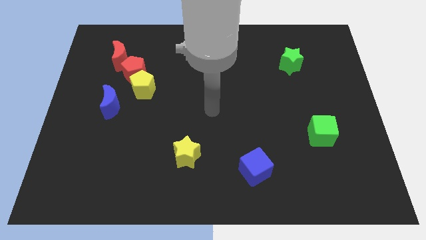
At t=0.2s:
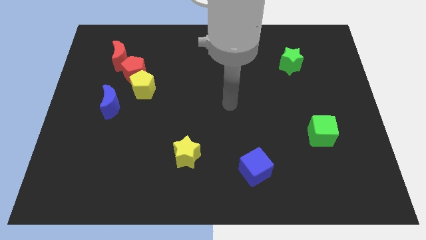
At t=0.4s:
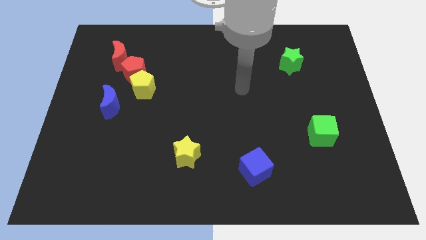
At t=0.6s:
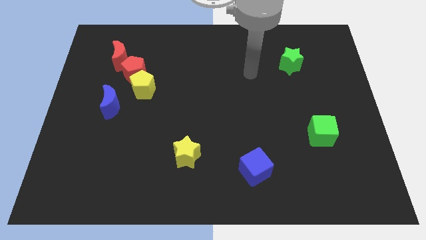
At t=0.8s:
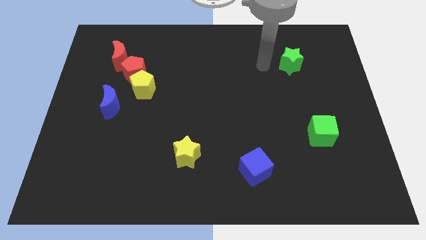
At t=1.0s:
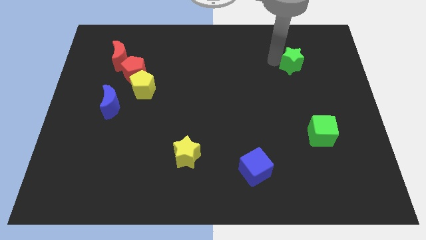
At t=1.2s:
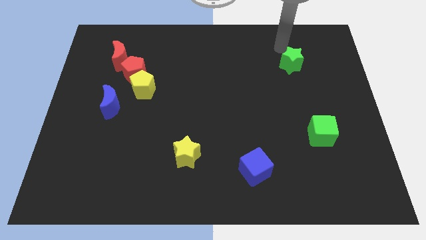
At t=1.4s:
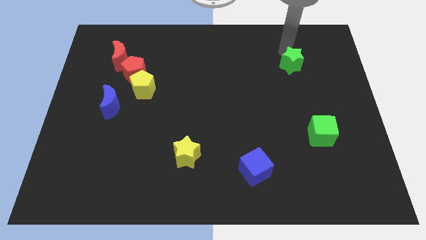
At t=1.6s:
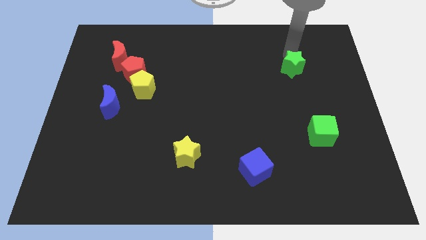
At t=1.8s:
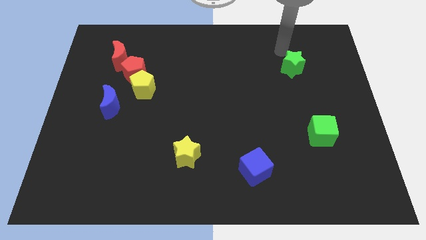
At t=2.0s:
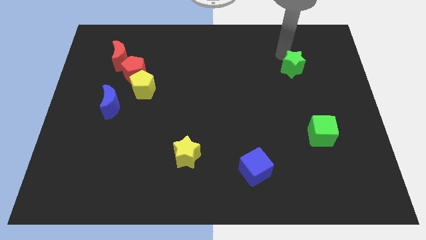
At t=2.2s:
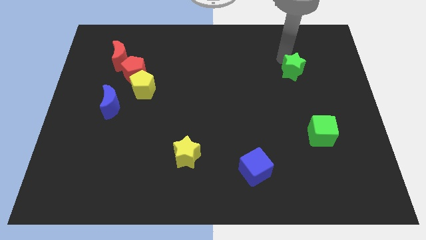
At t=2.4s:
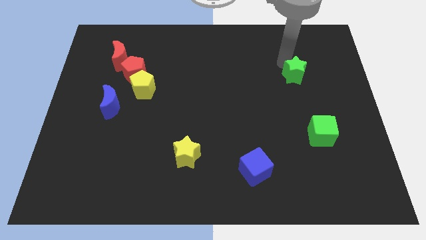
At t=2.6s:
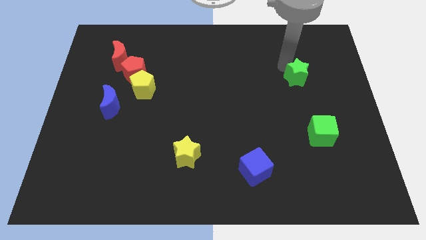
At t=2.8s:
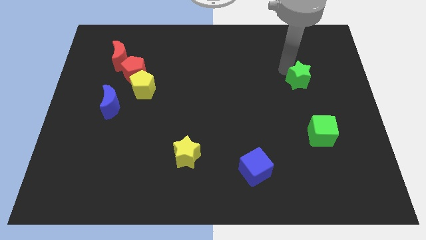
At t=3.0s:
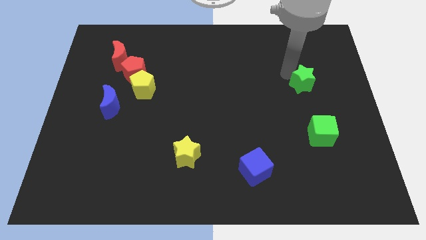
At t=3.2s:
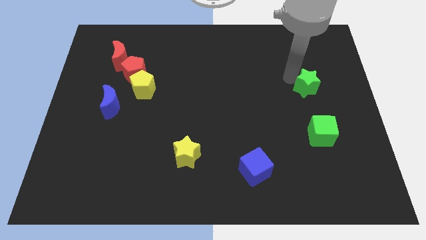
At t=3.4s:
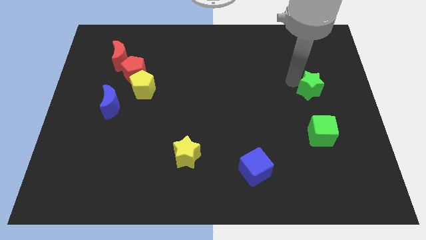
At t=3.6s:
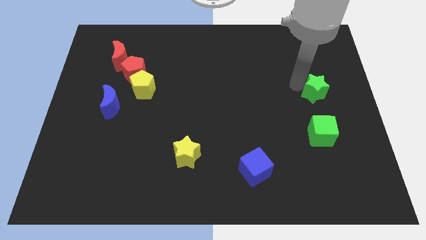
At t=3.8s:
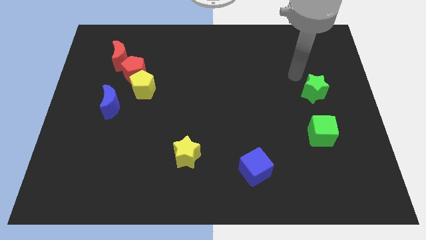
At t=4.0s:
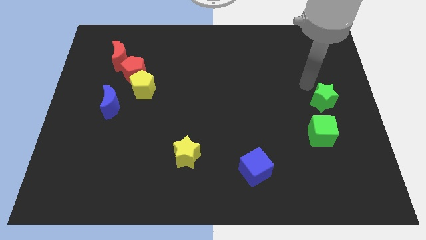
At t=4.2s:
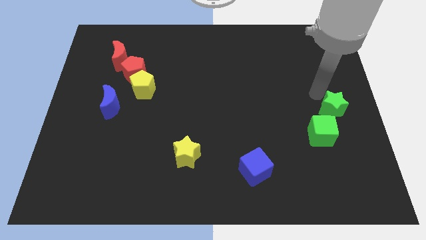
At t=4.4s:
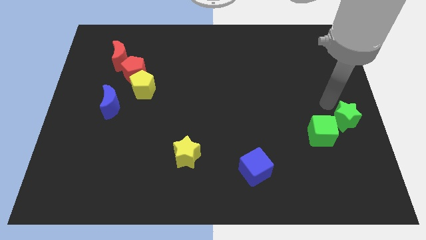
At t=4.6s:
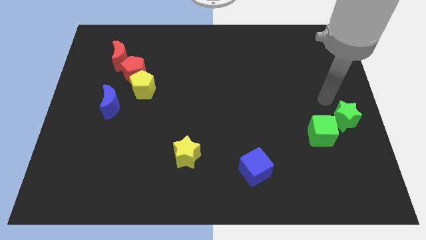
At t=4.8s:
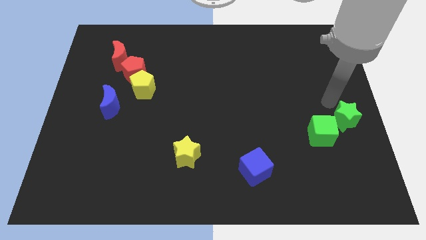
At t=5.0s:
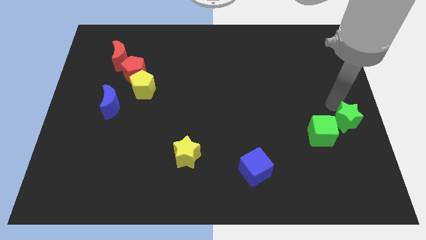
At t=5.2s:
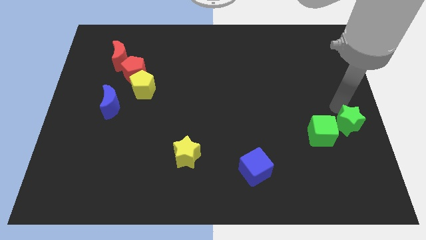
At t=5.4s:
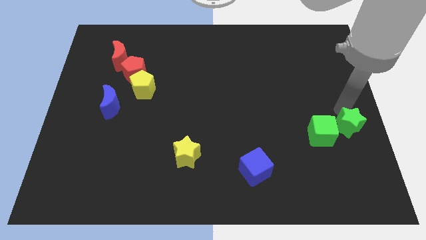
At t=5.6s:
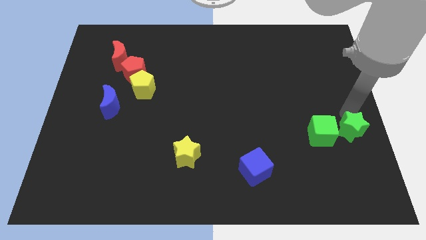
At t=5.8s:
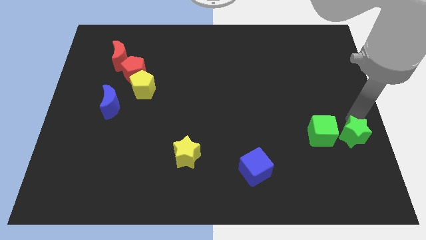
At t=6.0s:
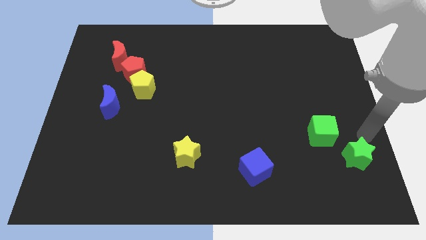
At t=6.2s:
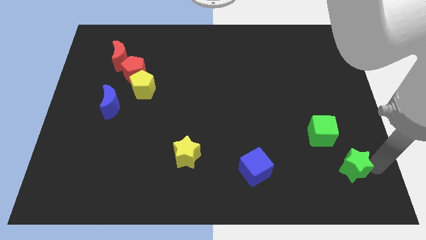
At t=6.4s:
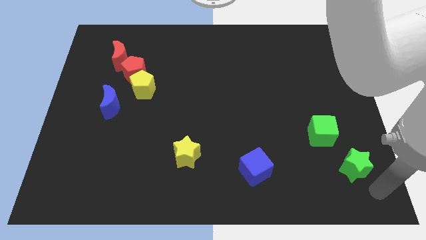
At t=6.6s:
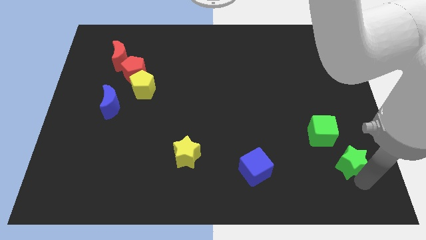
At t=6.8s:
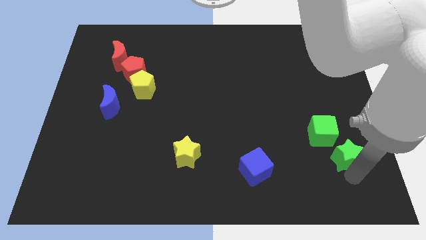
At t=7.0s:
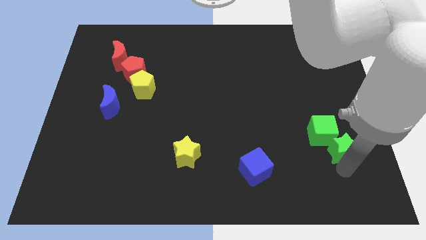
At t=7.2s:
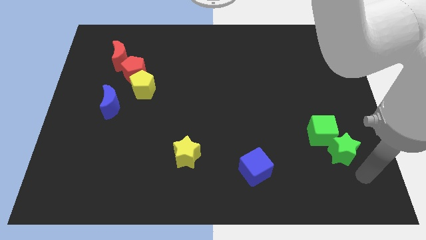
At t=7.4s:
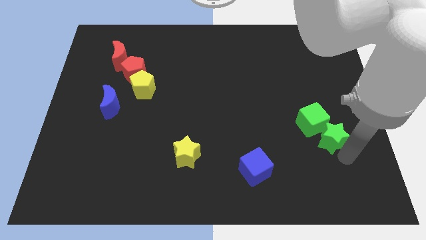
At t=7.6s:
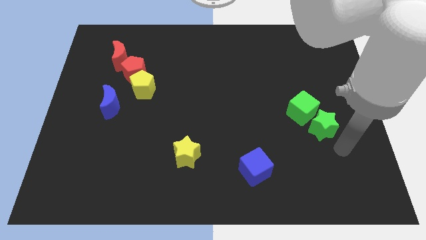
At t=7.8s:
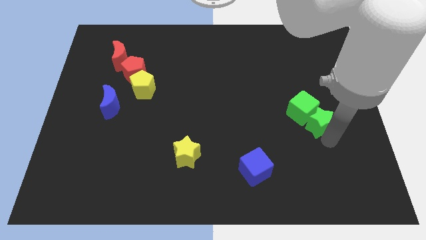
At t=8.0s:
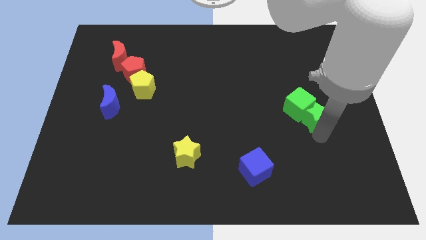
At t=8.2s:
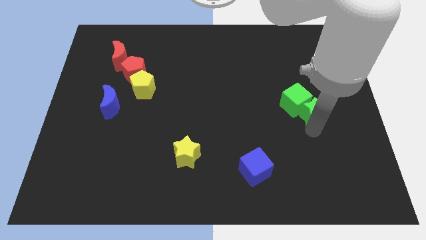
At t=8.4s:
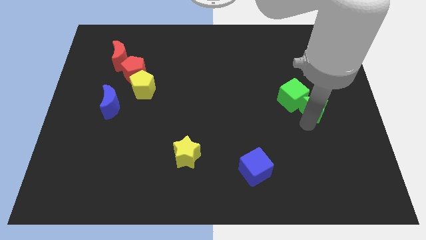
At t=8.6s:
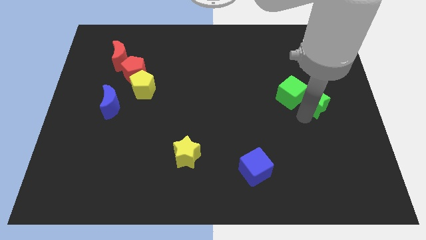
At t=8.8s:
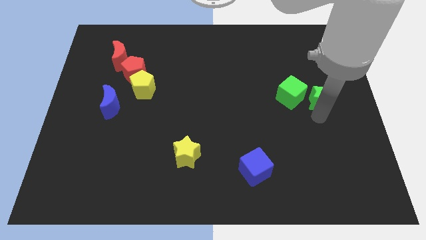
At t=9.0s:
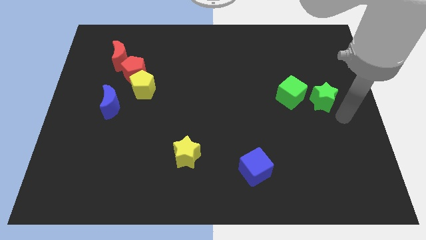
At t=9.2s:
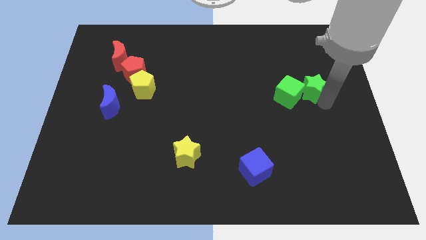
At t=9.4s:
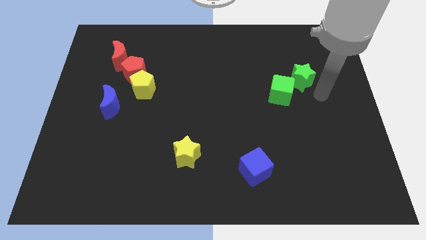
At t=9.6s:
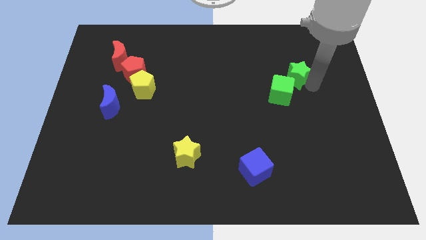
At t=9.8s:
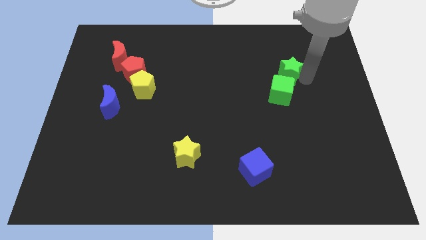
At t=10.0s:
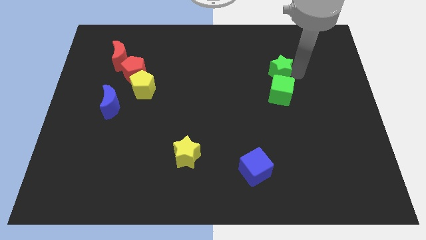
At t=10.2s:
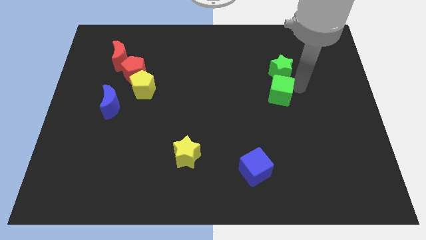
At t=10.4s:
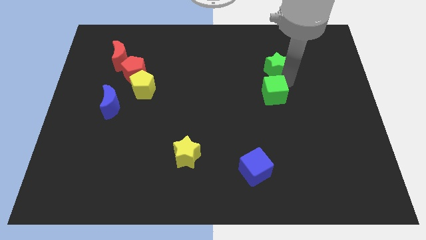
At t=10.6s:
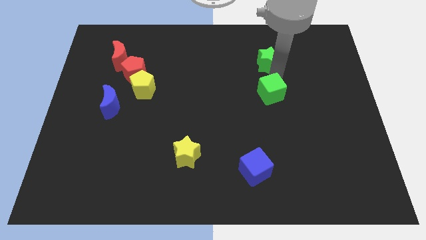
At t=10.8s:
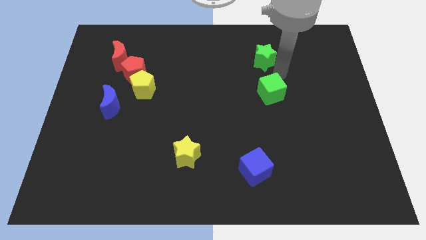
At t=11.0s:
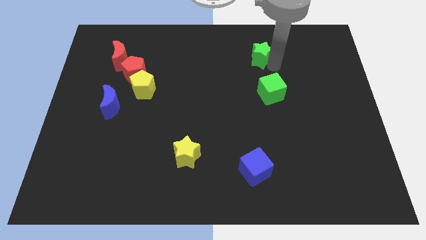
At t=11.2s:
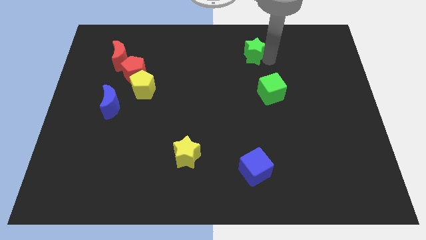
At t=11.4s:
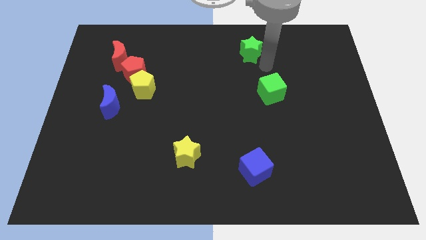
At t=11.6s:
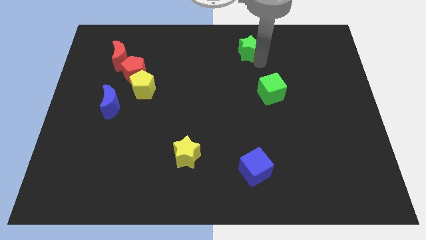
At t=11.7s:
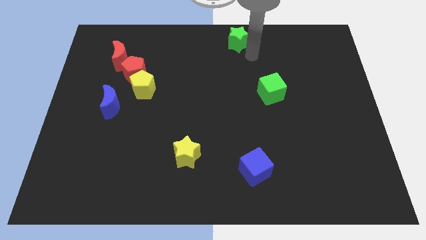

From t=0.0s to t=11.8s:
put the green star to the towards your base
